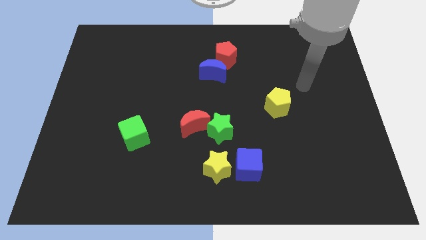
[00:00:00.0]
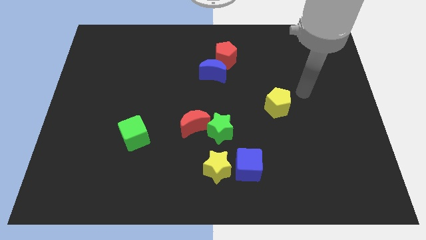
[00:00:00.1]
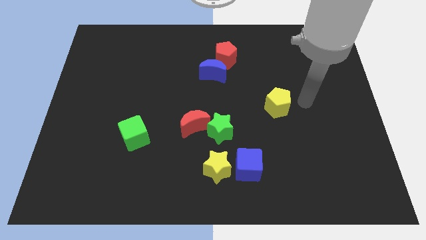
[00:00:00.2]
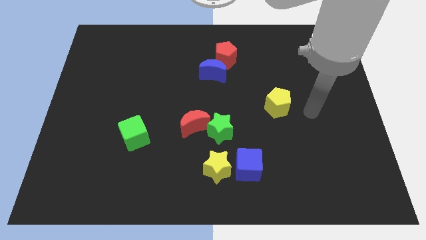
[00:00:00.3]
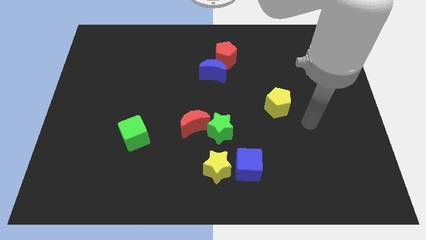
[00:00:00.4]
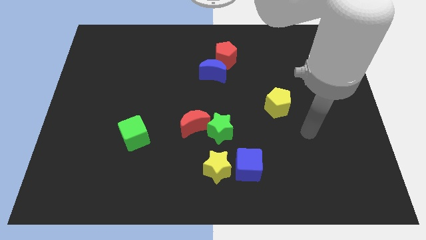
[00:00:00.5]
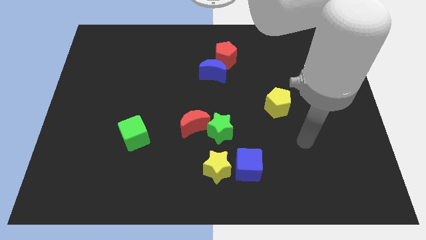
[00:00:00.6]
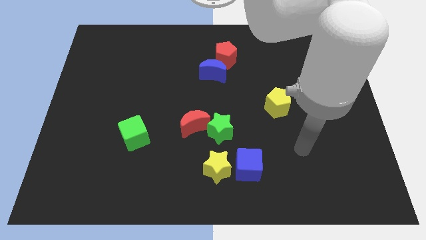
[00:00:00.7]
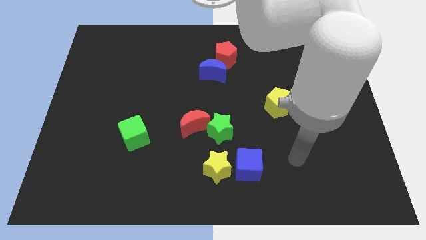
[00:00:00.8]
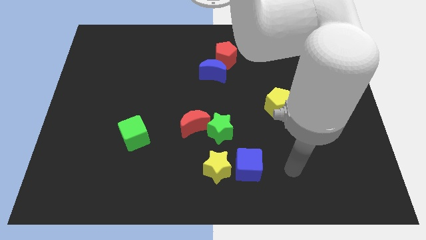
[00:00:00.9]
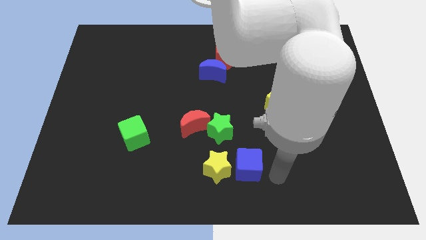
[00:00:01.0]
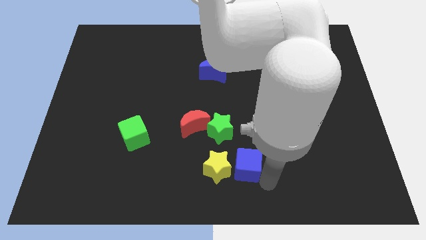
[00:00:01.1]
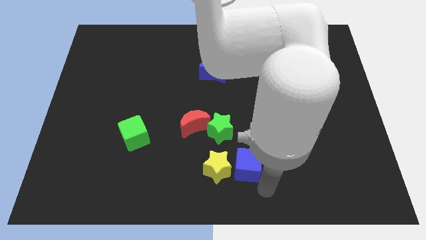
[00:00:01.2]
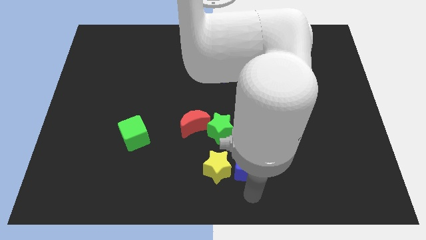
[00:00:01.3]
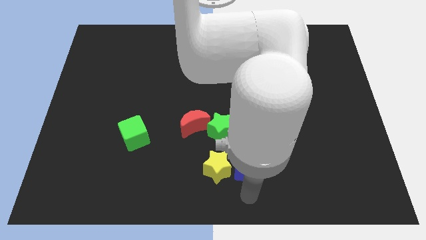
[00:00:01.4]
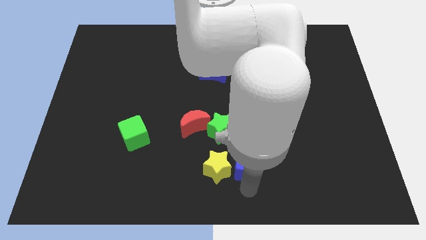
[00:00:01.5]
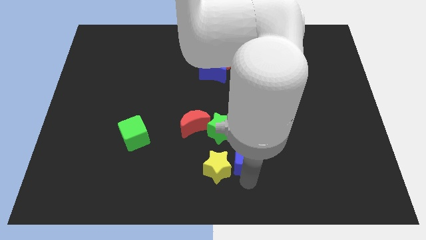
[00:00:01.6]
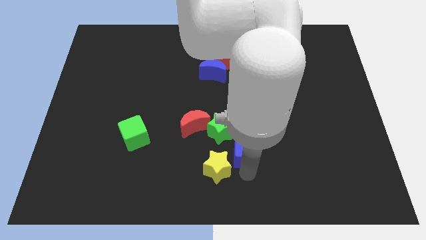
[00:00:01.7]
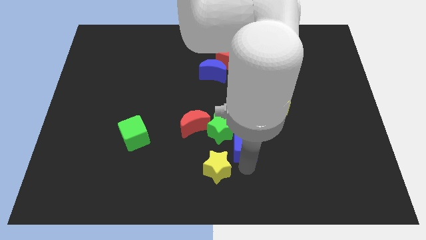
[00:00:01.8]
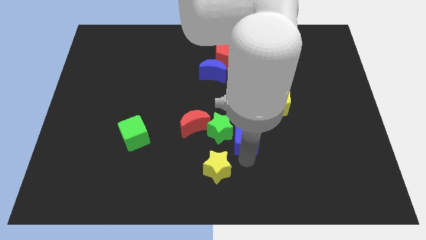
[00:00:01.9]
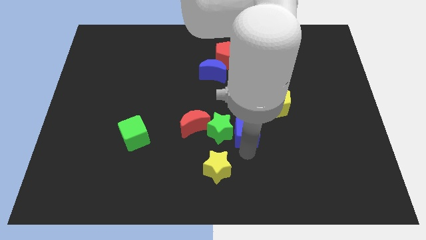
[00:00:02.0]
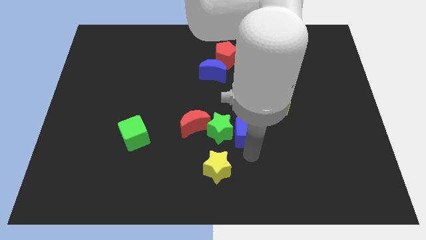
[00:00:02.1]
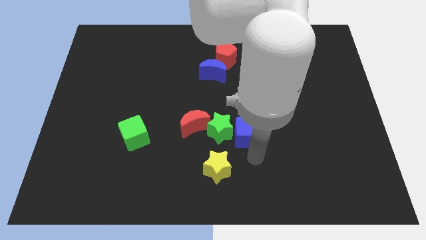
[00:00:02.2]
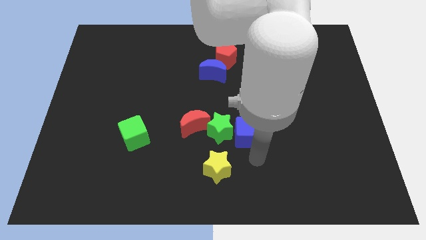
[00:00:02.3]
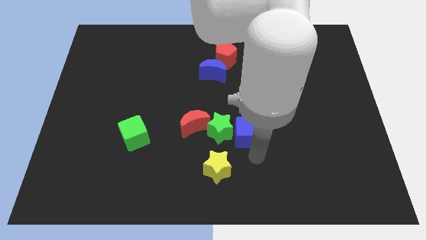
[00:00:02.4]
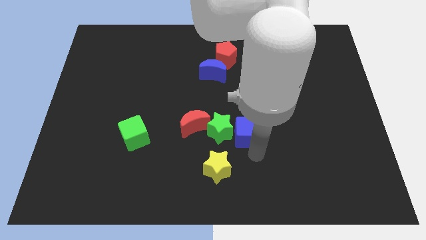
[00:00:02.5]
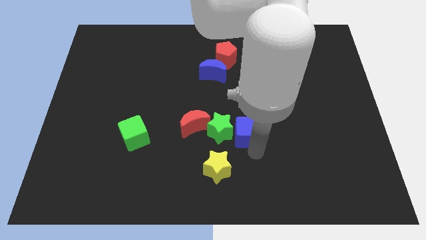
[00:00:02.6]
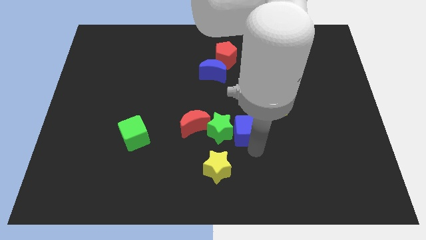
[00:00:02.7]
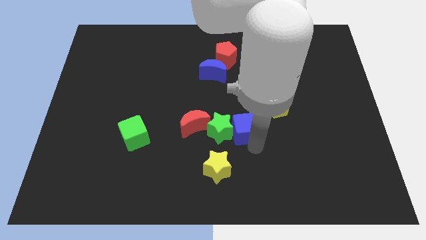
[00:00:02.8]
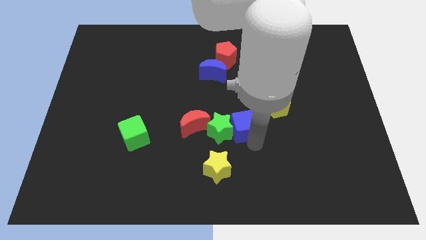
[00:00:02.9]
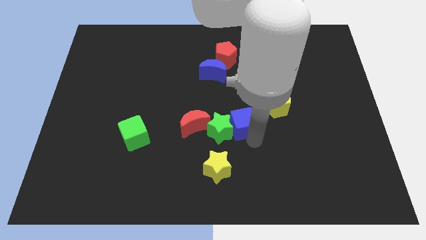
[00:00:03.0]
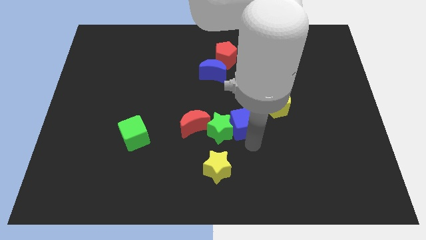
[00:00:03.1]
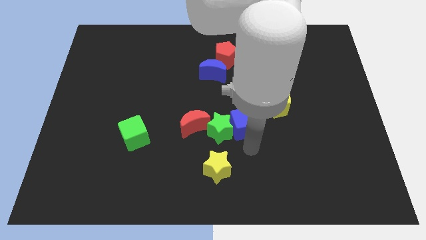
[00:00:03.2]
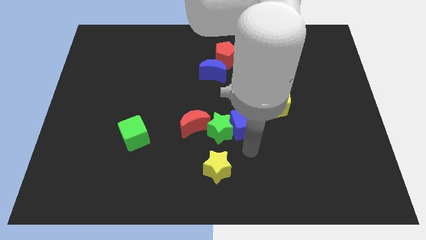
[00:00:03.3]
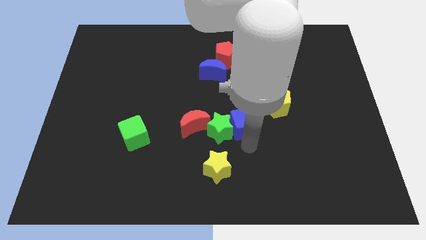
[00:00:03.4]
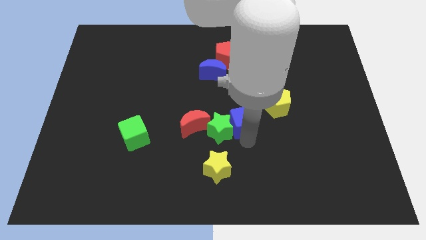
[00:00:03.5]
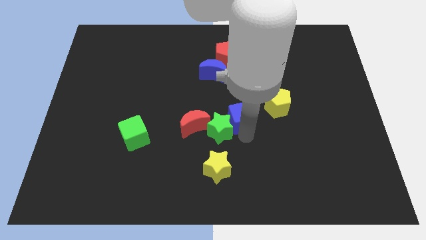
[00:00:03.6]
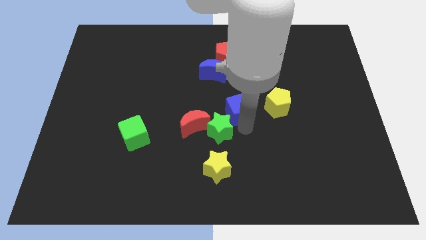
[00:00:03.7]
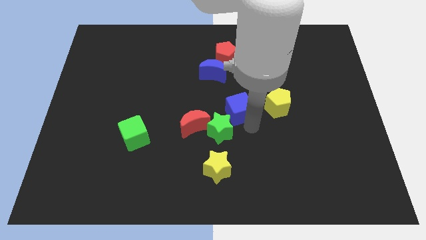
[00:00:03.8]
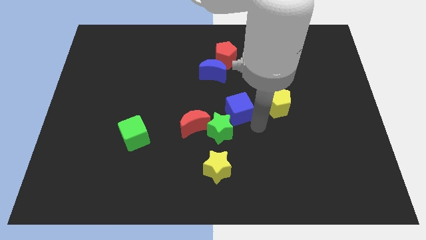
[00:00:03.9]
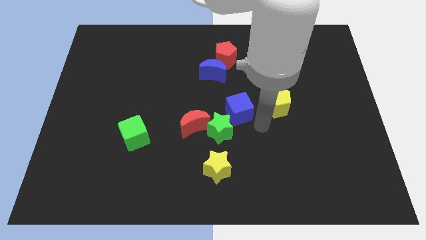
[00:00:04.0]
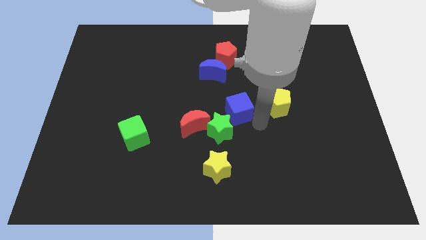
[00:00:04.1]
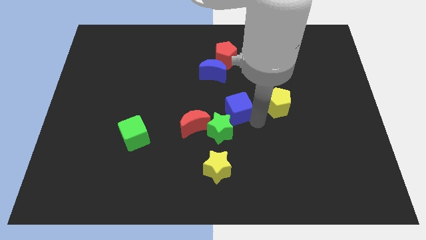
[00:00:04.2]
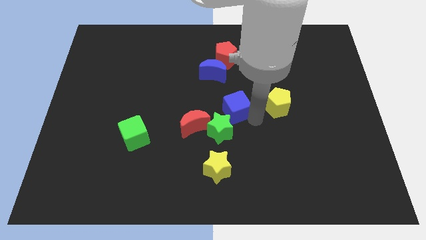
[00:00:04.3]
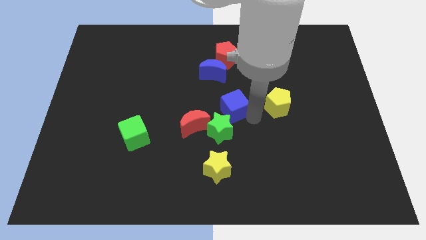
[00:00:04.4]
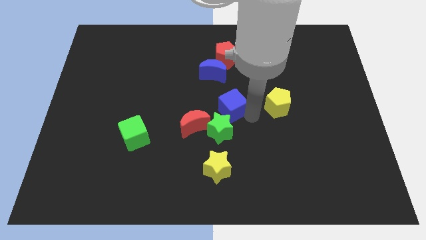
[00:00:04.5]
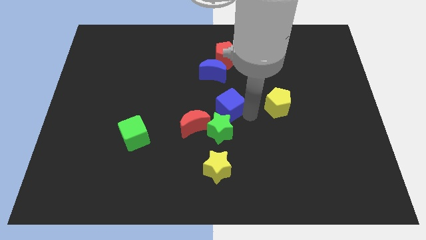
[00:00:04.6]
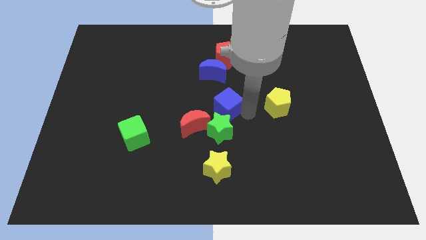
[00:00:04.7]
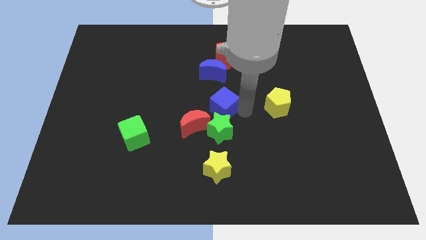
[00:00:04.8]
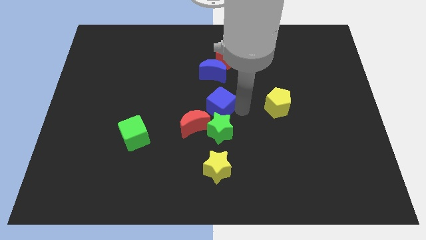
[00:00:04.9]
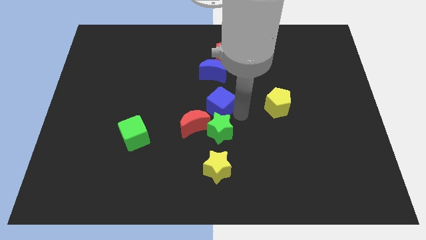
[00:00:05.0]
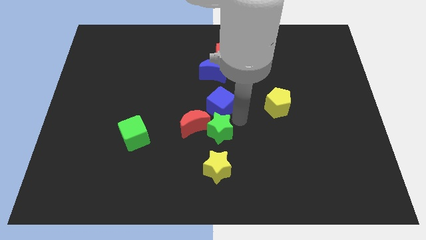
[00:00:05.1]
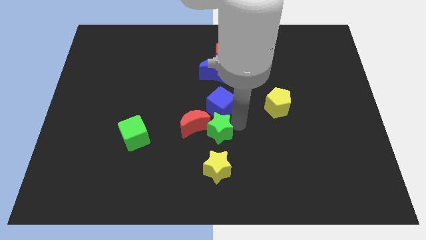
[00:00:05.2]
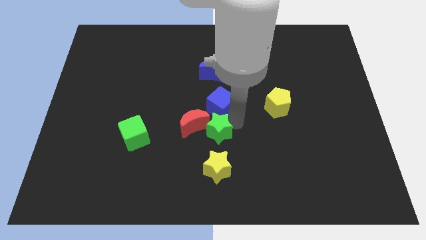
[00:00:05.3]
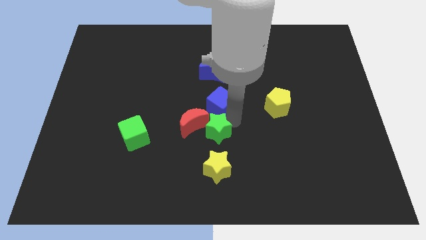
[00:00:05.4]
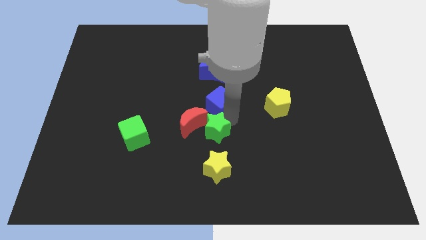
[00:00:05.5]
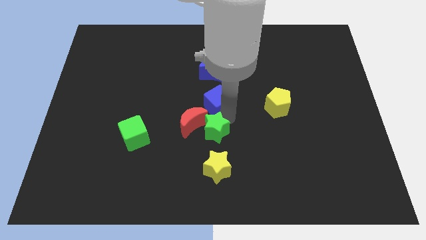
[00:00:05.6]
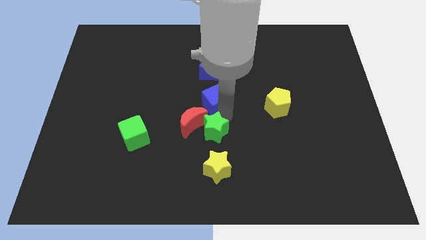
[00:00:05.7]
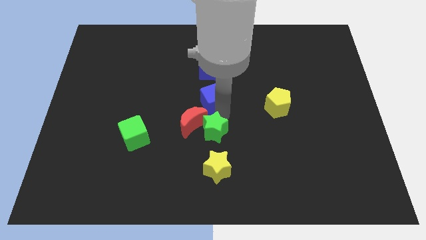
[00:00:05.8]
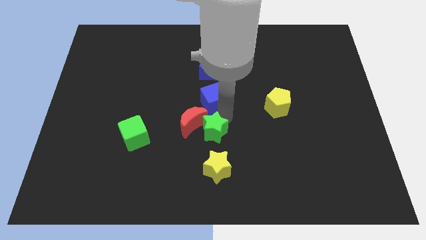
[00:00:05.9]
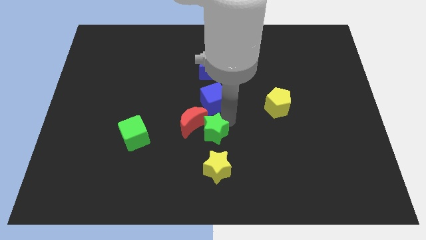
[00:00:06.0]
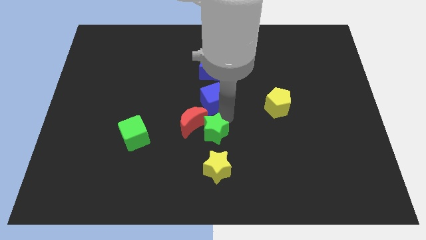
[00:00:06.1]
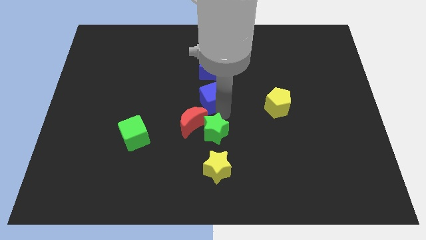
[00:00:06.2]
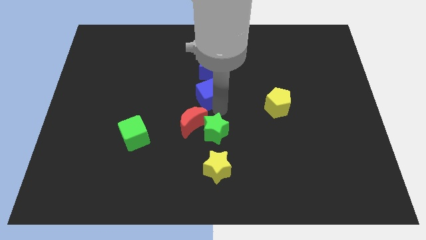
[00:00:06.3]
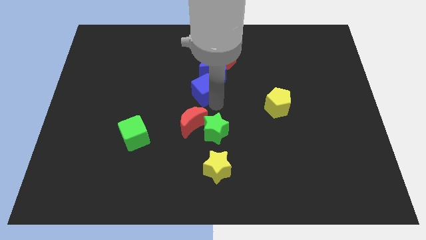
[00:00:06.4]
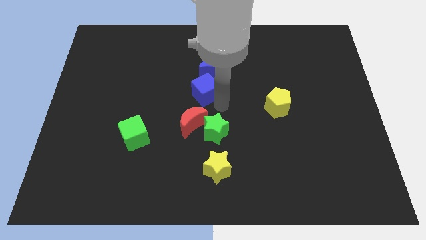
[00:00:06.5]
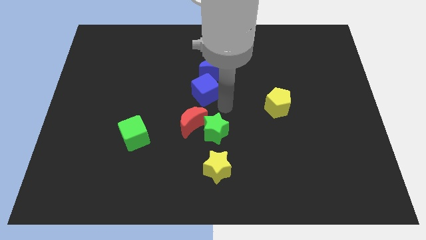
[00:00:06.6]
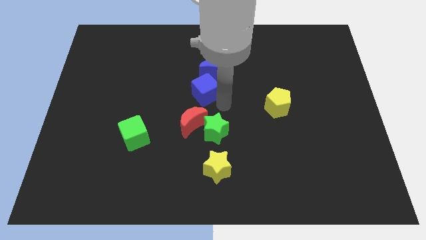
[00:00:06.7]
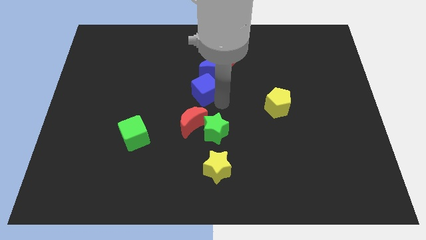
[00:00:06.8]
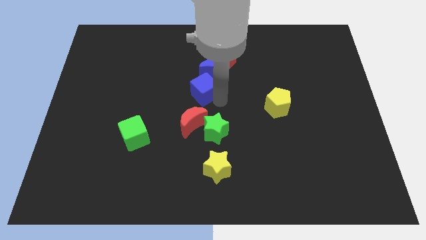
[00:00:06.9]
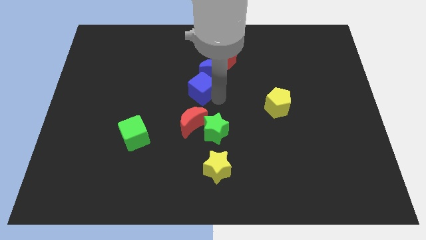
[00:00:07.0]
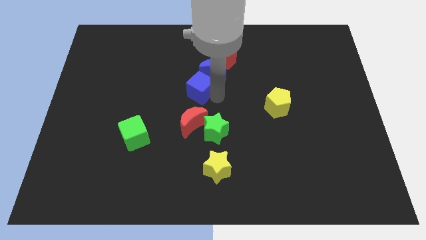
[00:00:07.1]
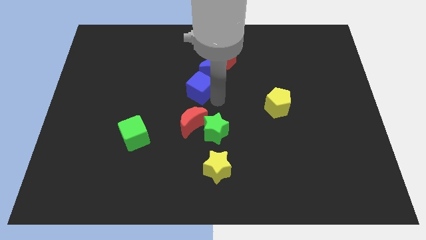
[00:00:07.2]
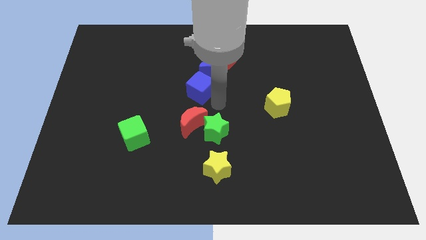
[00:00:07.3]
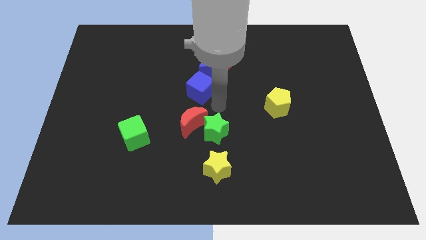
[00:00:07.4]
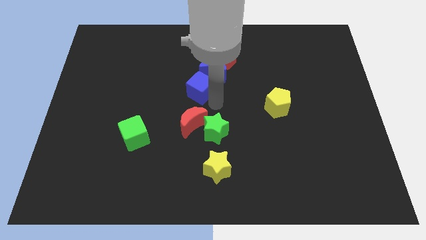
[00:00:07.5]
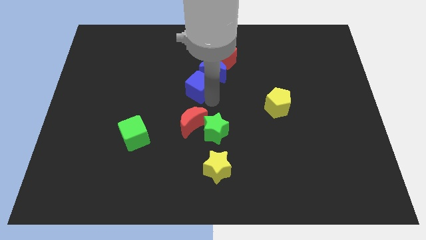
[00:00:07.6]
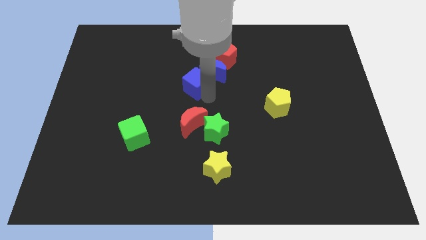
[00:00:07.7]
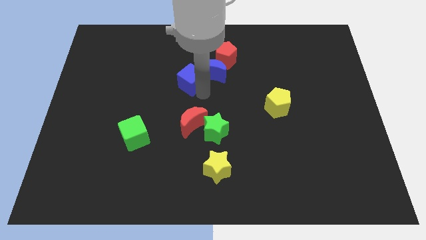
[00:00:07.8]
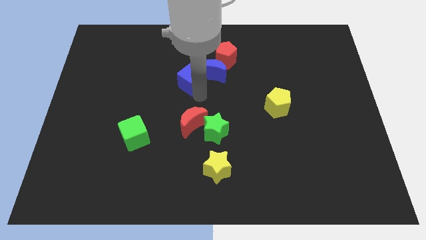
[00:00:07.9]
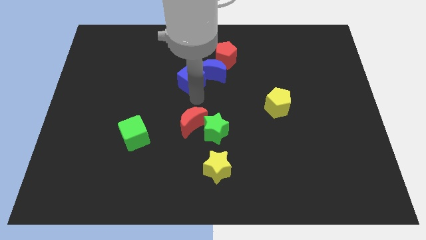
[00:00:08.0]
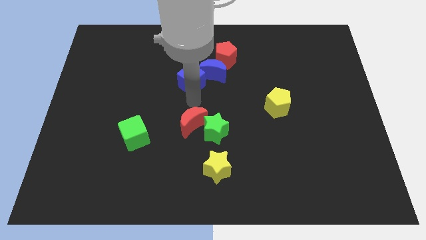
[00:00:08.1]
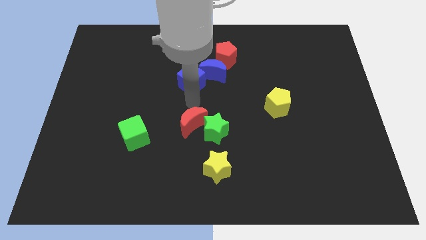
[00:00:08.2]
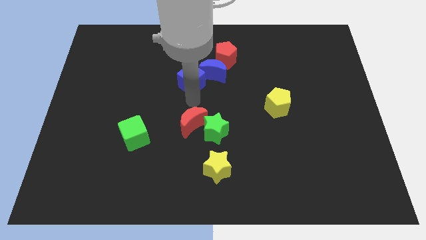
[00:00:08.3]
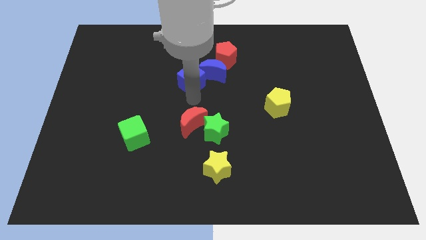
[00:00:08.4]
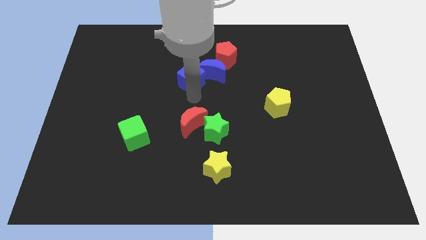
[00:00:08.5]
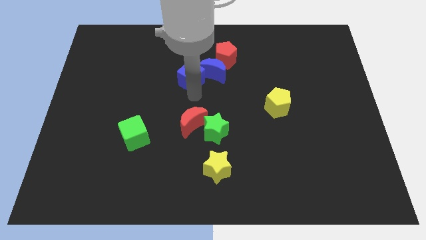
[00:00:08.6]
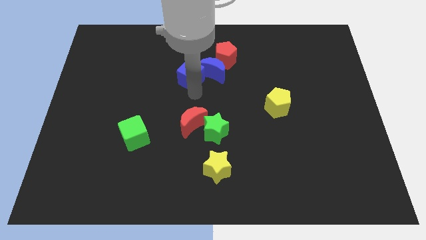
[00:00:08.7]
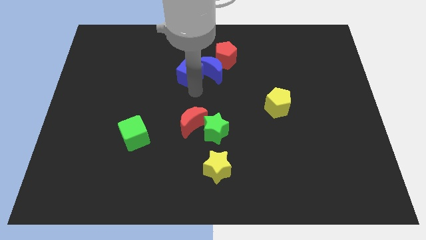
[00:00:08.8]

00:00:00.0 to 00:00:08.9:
push the blue cube diagonally up and to the left of the blue moon
